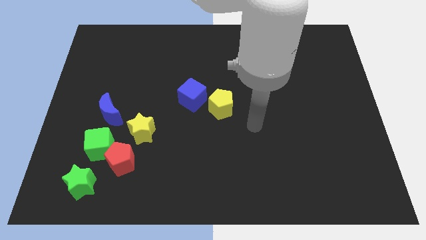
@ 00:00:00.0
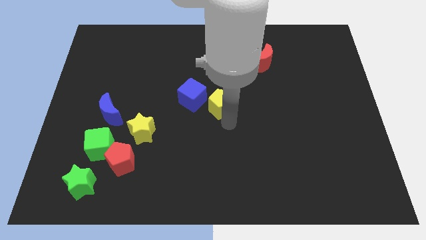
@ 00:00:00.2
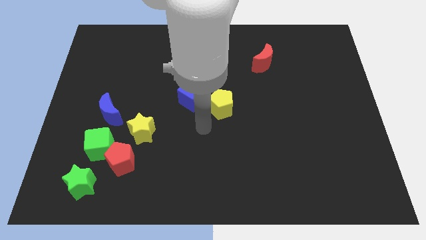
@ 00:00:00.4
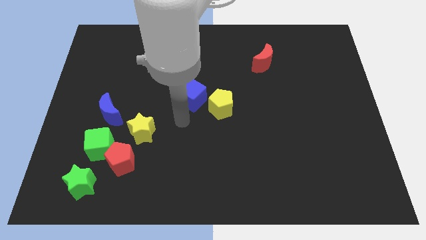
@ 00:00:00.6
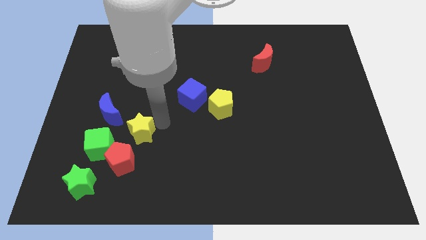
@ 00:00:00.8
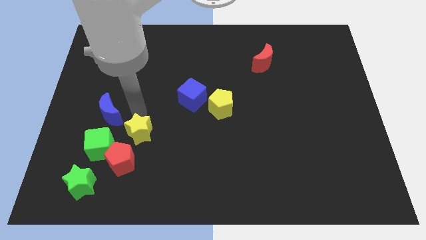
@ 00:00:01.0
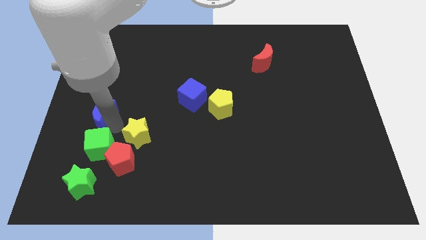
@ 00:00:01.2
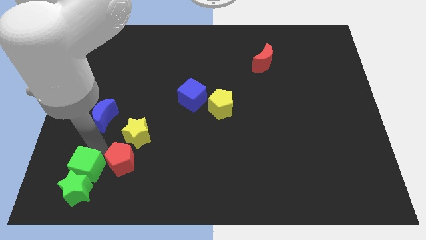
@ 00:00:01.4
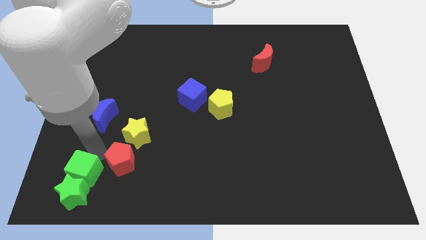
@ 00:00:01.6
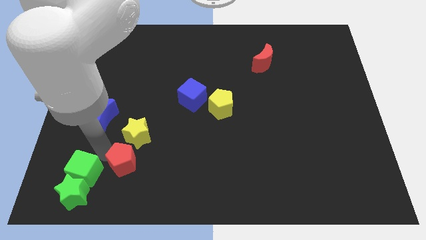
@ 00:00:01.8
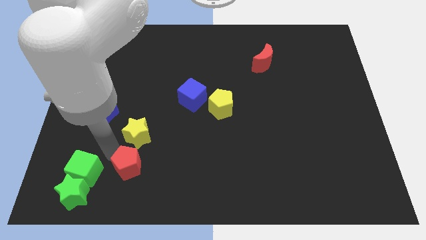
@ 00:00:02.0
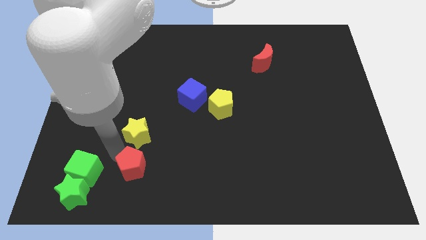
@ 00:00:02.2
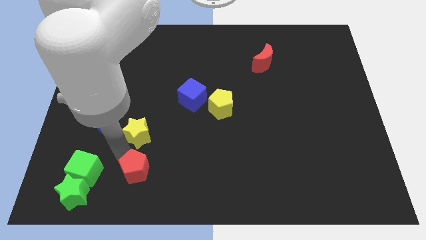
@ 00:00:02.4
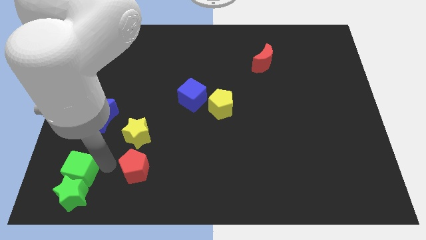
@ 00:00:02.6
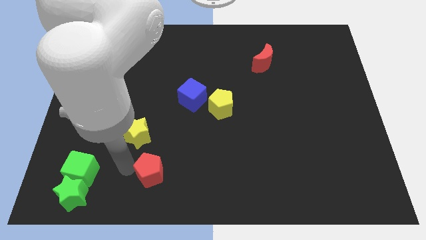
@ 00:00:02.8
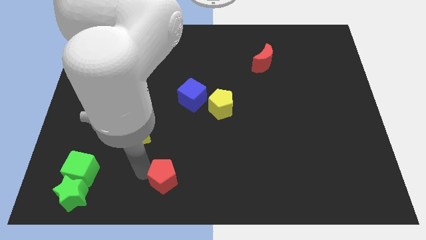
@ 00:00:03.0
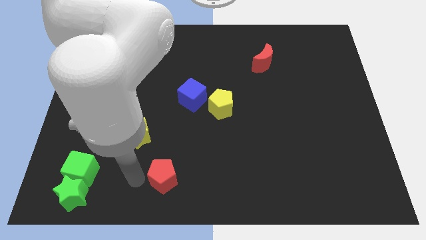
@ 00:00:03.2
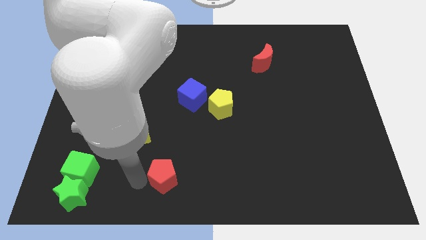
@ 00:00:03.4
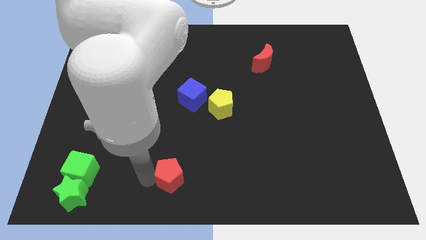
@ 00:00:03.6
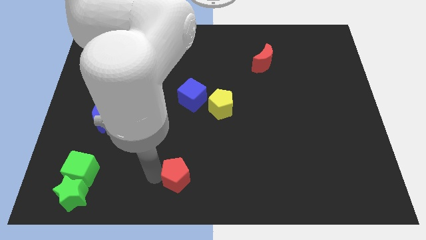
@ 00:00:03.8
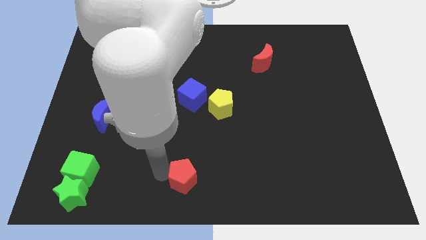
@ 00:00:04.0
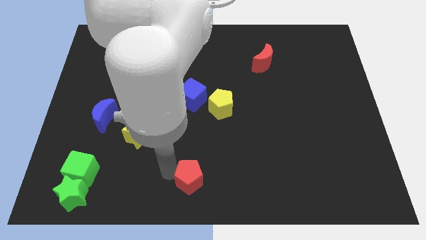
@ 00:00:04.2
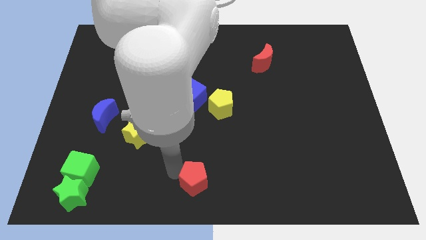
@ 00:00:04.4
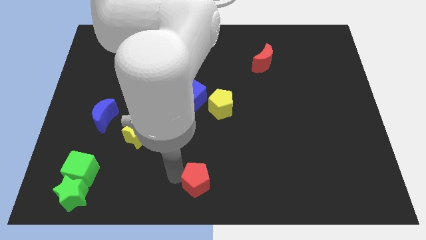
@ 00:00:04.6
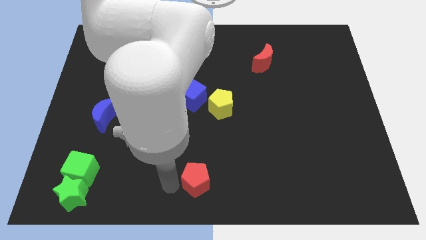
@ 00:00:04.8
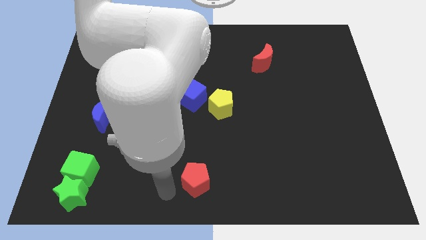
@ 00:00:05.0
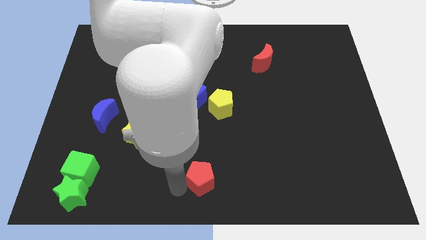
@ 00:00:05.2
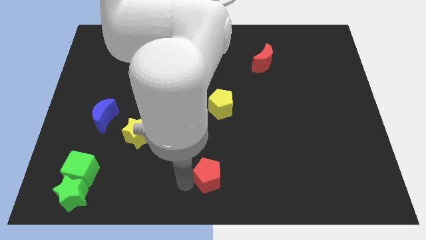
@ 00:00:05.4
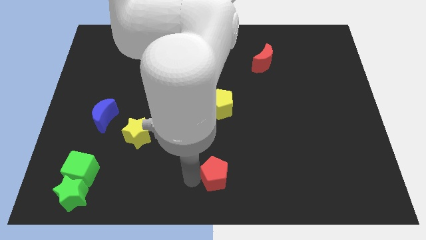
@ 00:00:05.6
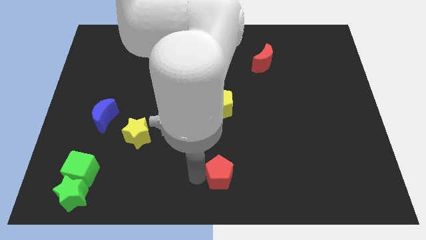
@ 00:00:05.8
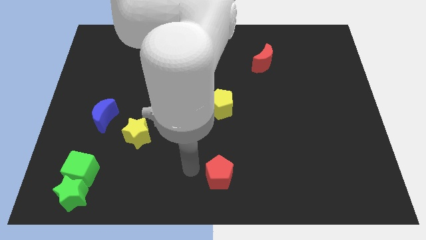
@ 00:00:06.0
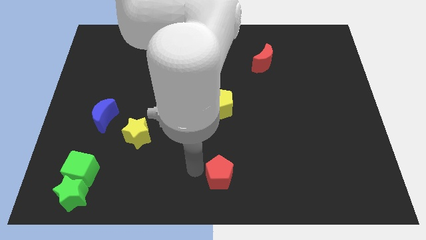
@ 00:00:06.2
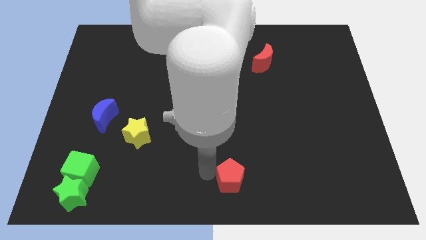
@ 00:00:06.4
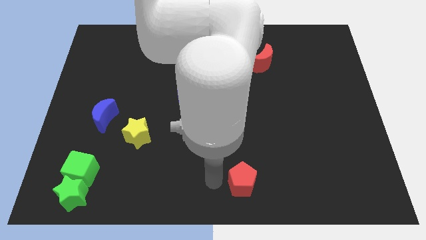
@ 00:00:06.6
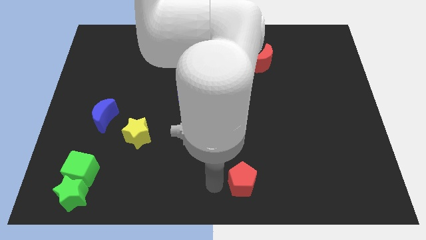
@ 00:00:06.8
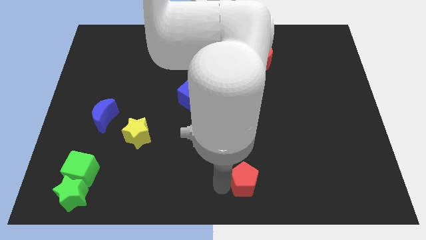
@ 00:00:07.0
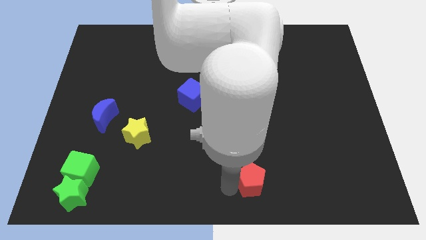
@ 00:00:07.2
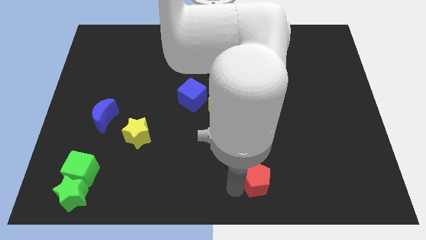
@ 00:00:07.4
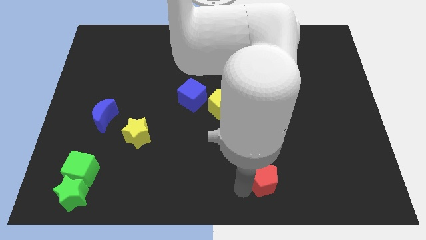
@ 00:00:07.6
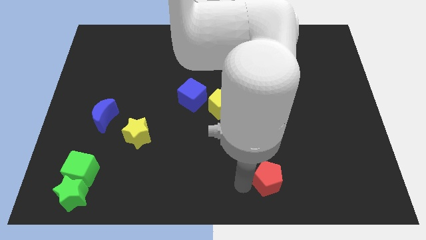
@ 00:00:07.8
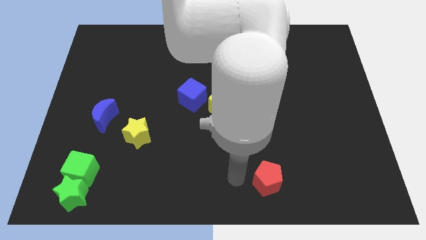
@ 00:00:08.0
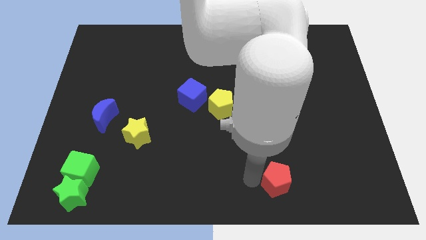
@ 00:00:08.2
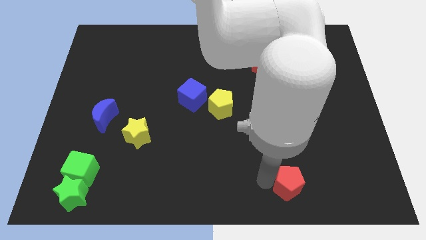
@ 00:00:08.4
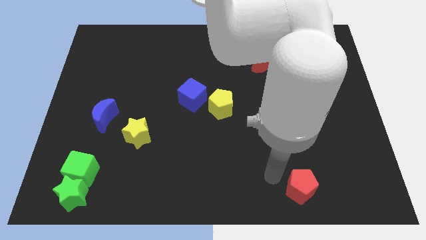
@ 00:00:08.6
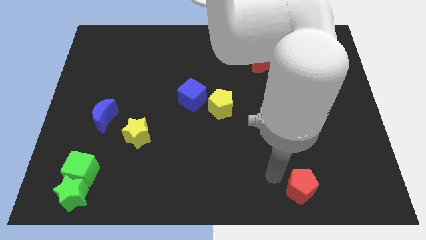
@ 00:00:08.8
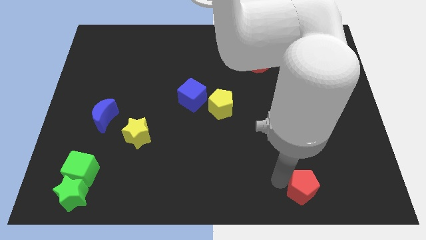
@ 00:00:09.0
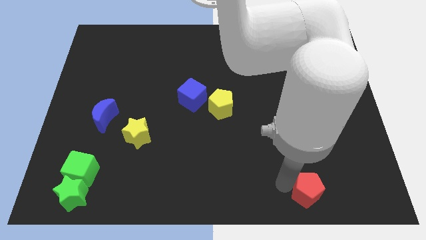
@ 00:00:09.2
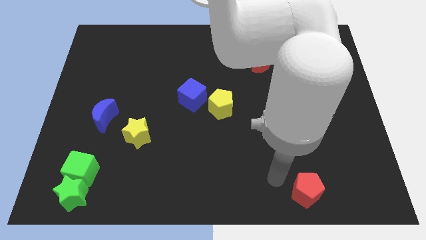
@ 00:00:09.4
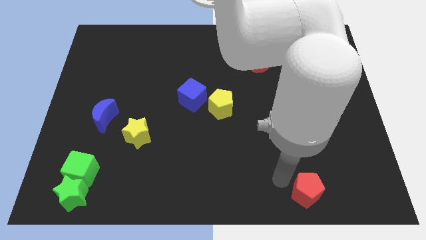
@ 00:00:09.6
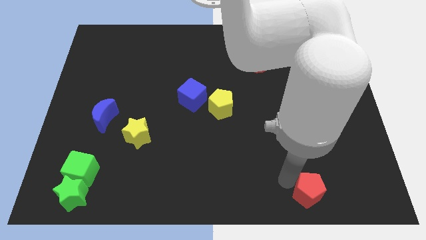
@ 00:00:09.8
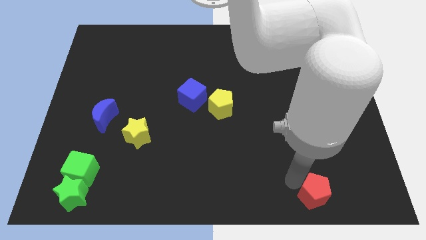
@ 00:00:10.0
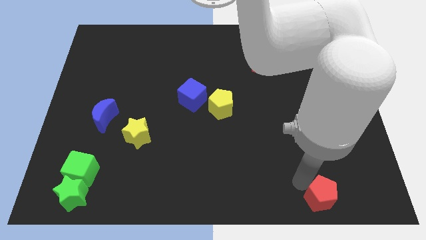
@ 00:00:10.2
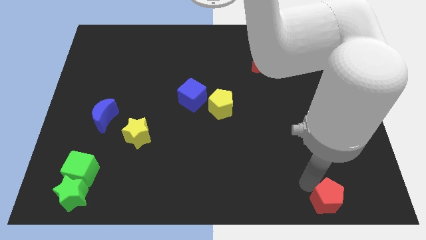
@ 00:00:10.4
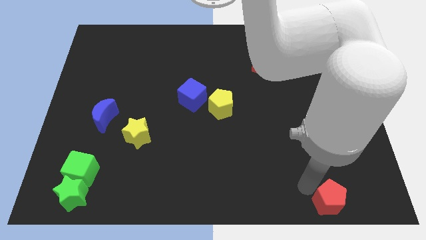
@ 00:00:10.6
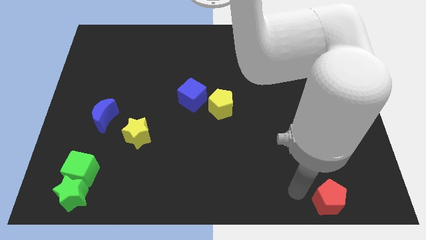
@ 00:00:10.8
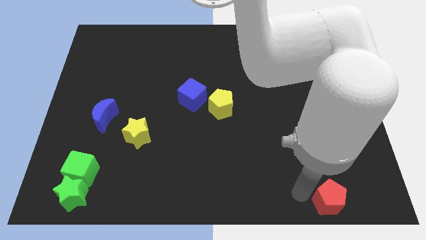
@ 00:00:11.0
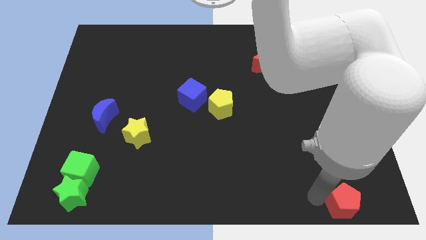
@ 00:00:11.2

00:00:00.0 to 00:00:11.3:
slide the red pentagon to the bottom right
